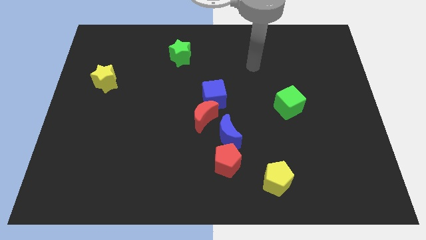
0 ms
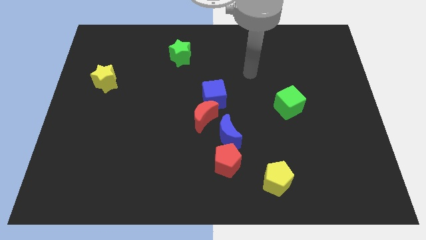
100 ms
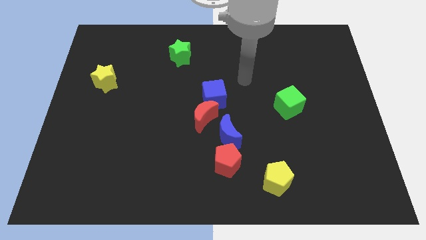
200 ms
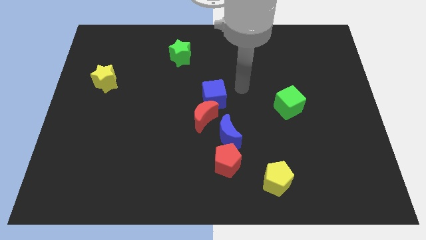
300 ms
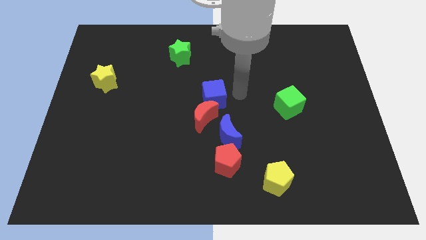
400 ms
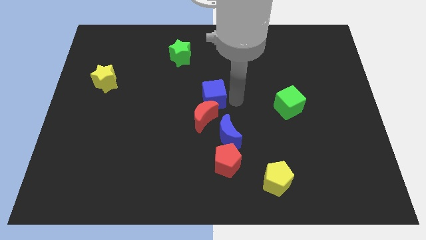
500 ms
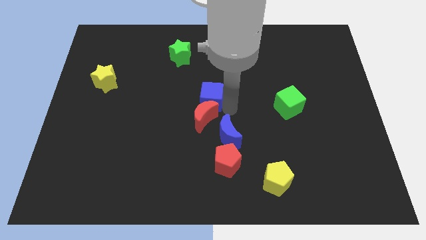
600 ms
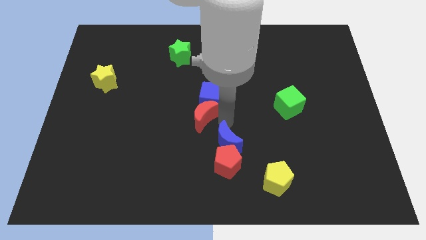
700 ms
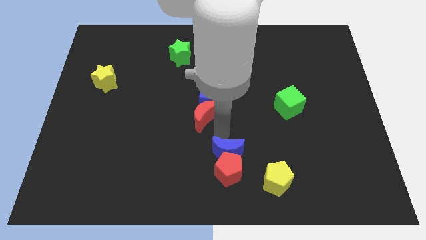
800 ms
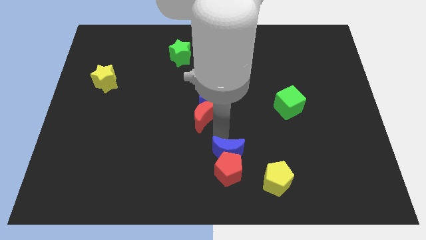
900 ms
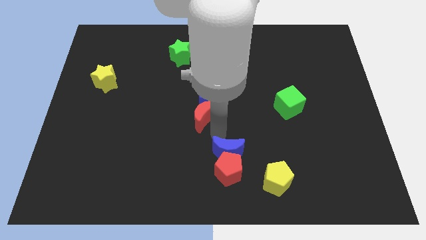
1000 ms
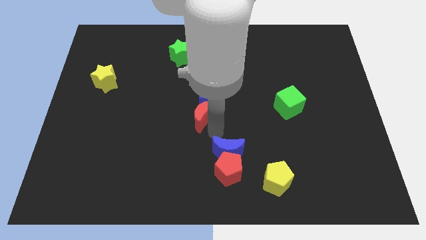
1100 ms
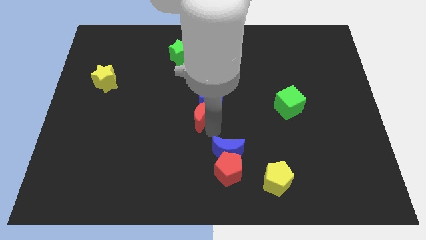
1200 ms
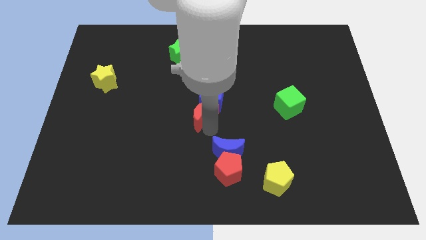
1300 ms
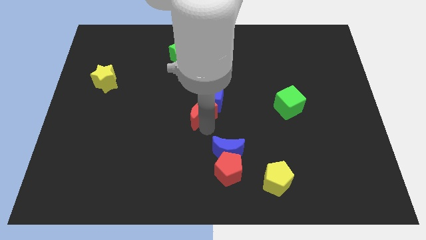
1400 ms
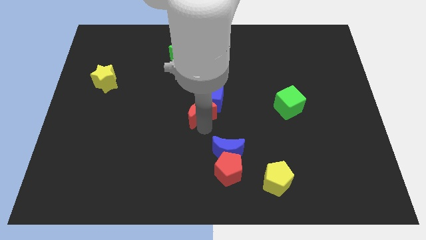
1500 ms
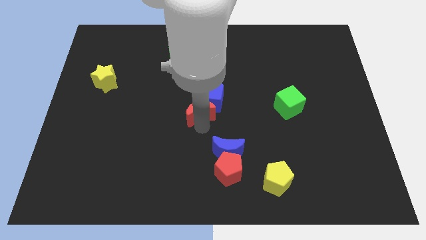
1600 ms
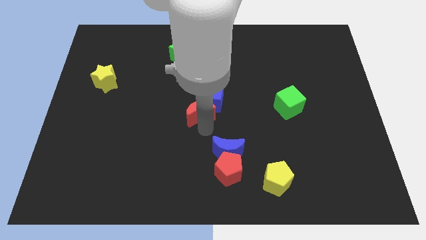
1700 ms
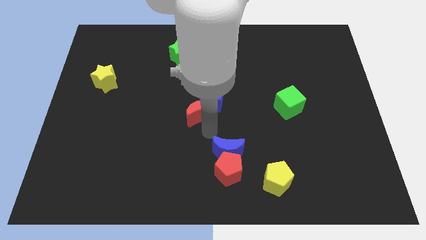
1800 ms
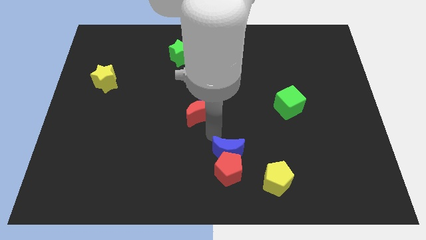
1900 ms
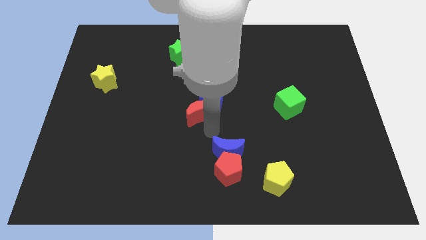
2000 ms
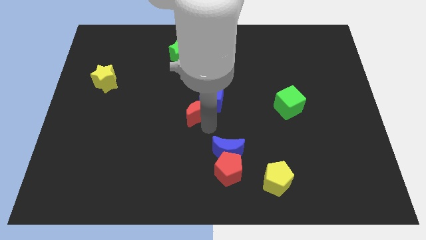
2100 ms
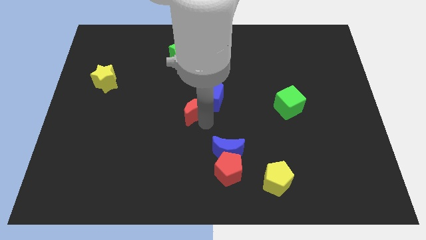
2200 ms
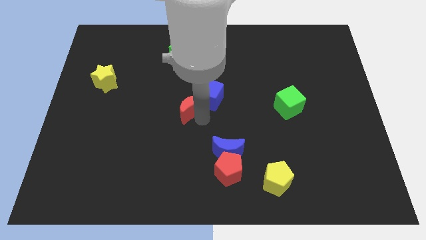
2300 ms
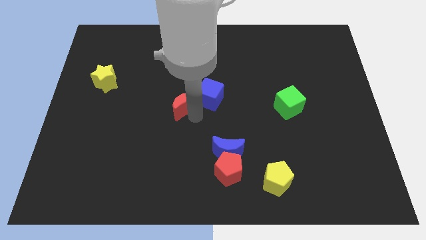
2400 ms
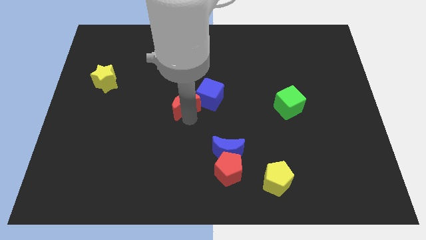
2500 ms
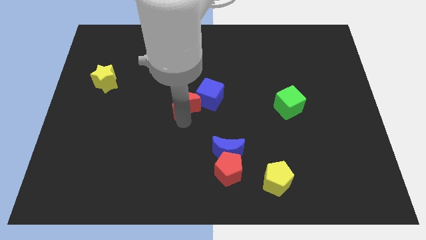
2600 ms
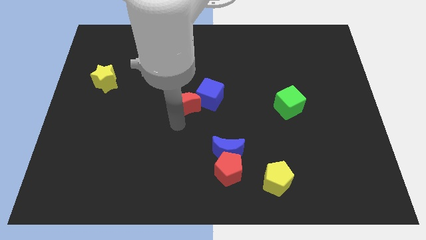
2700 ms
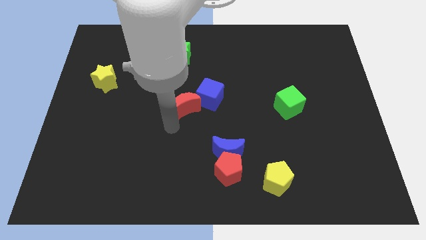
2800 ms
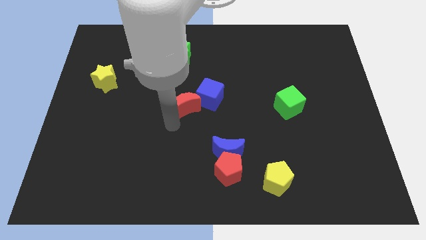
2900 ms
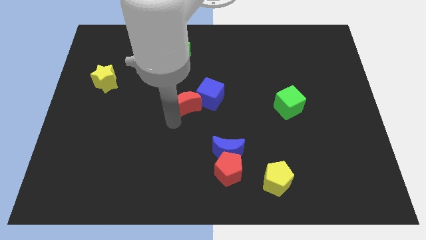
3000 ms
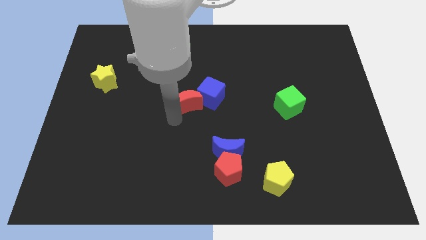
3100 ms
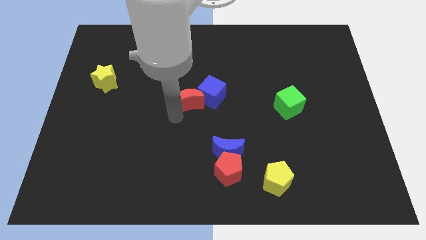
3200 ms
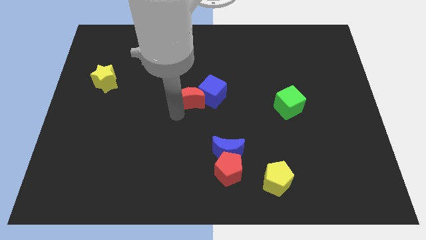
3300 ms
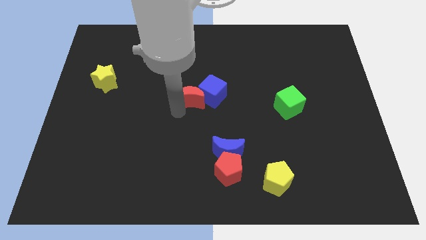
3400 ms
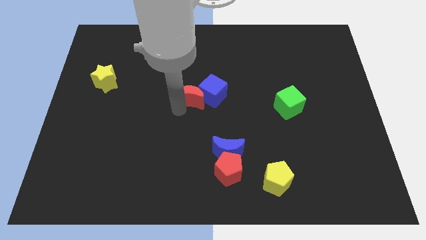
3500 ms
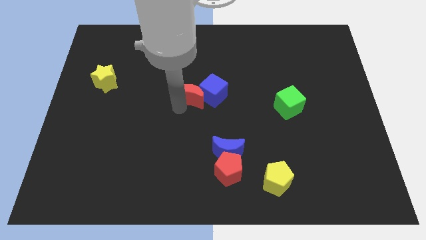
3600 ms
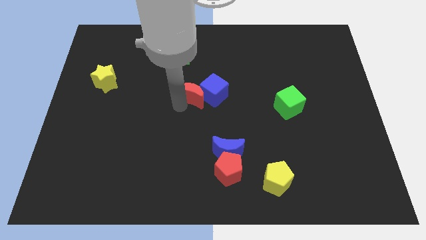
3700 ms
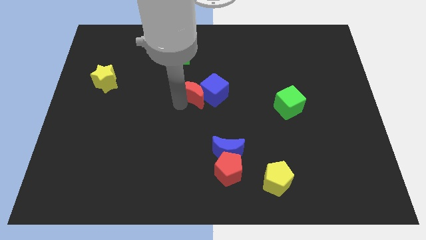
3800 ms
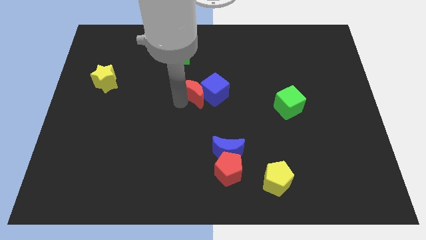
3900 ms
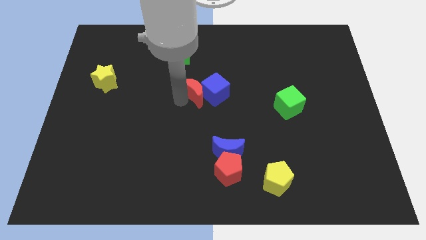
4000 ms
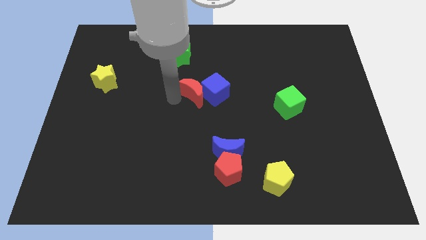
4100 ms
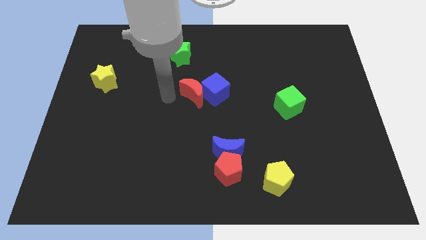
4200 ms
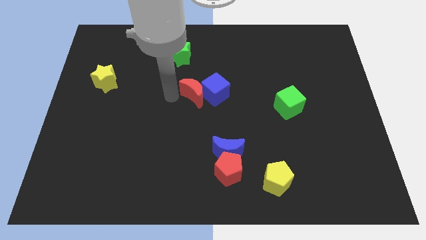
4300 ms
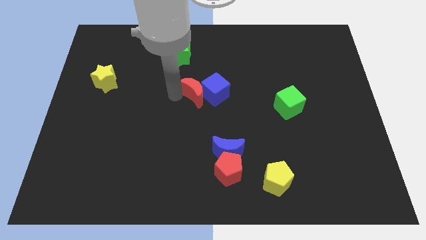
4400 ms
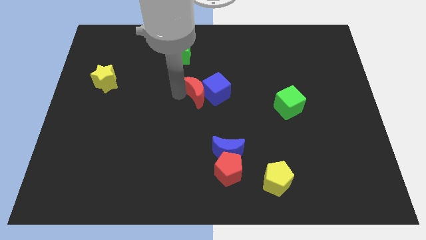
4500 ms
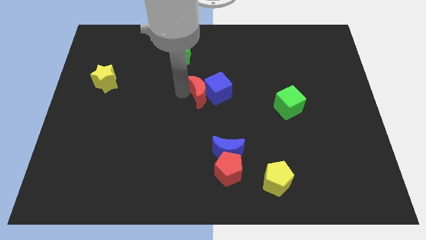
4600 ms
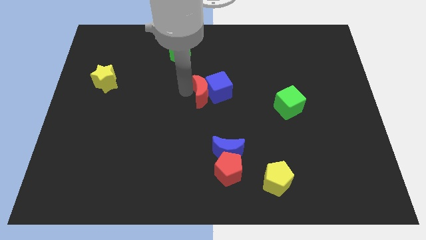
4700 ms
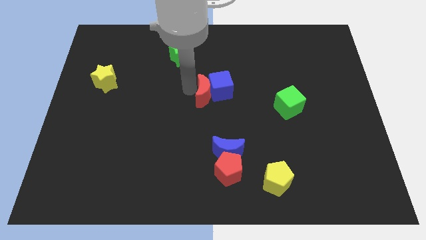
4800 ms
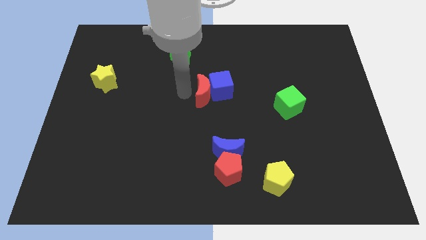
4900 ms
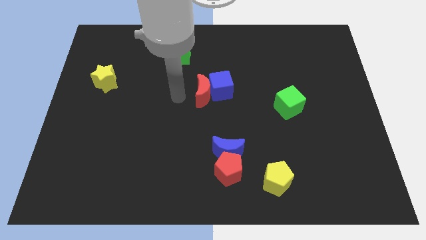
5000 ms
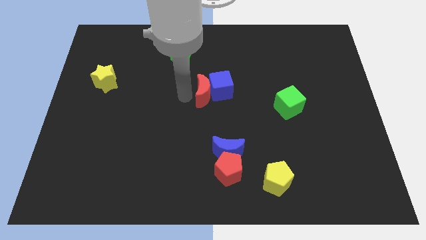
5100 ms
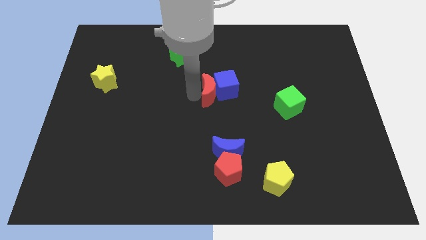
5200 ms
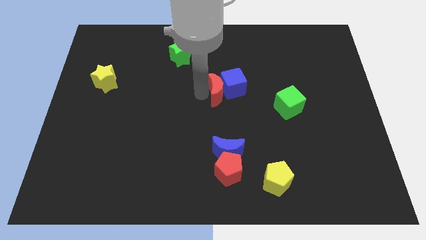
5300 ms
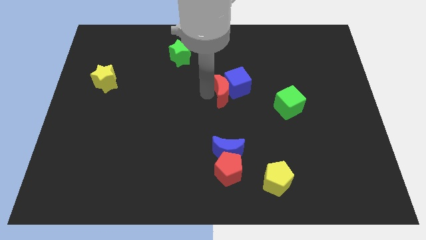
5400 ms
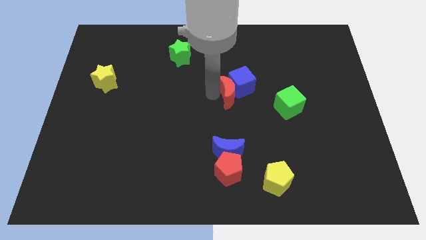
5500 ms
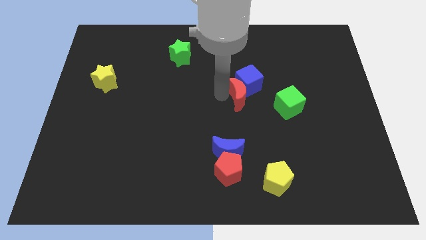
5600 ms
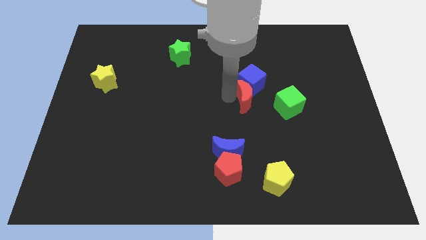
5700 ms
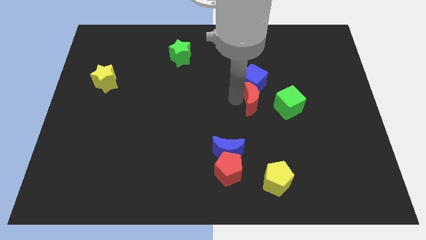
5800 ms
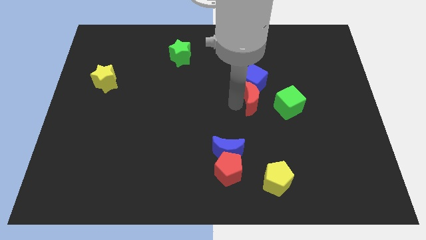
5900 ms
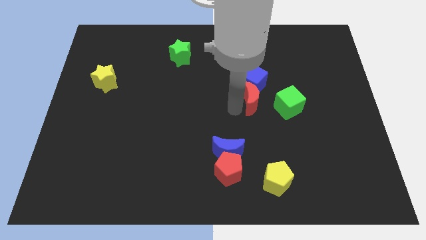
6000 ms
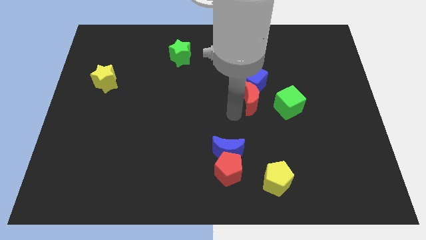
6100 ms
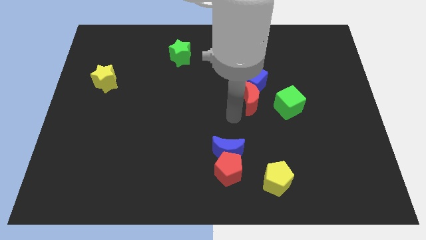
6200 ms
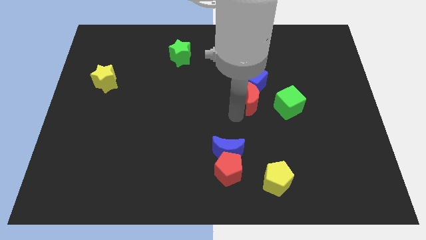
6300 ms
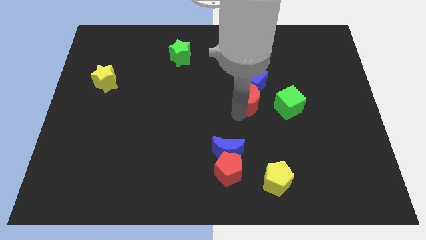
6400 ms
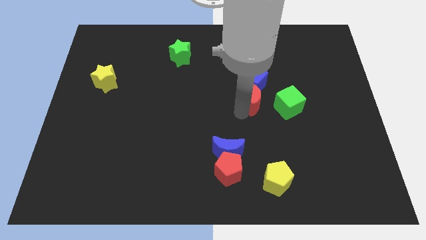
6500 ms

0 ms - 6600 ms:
put the red moon diagonally up and to the left of the green cube

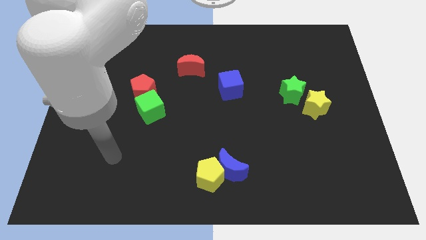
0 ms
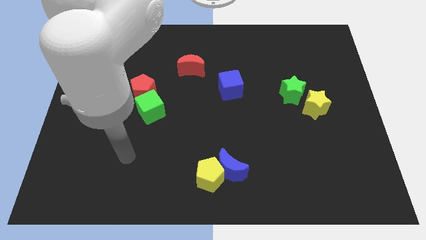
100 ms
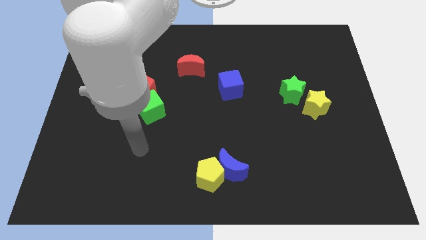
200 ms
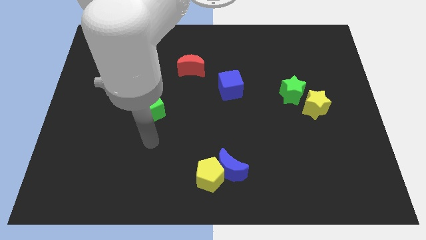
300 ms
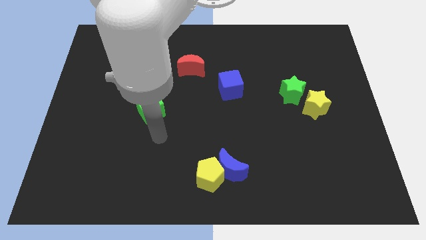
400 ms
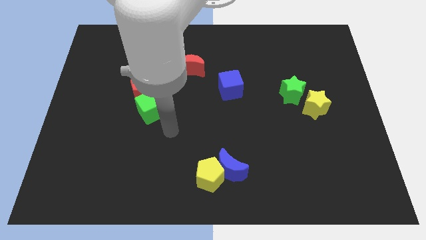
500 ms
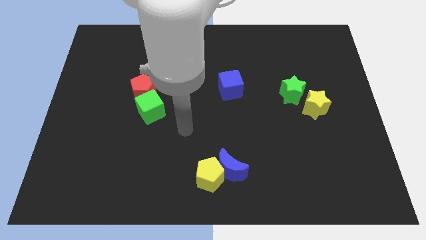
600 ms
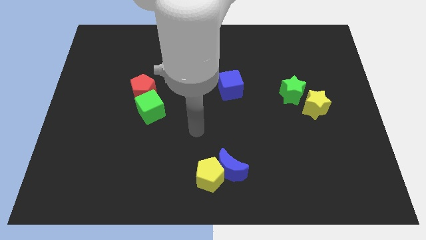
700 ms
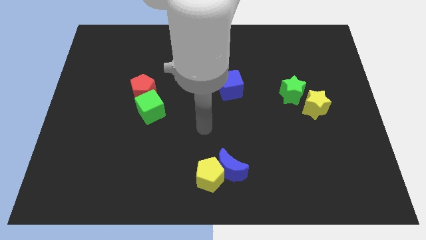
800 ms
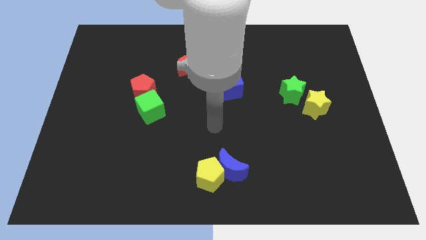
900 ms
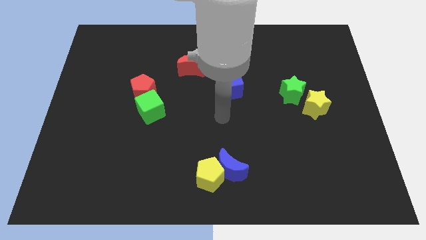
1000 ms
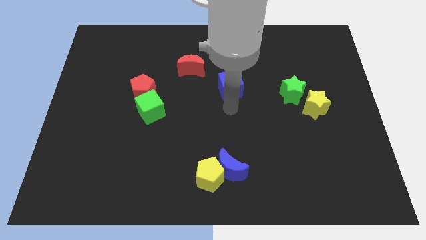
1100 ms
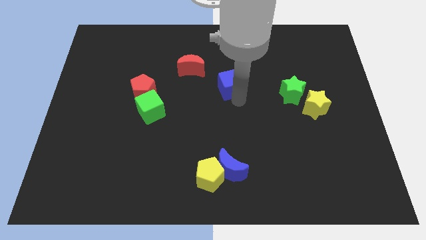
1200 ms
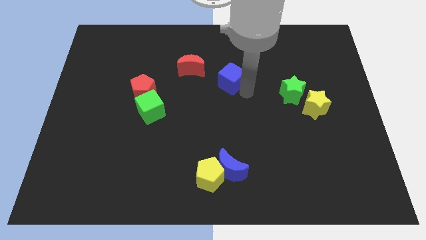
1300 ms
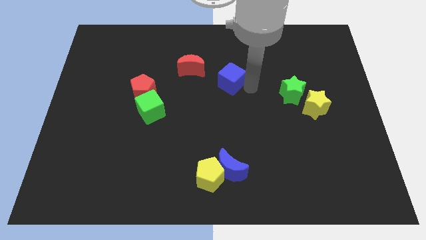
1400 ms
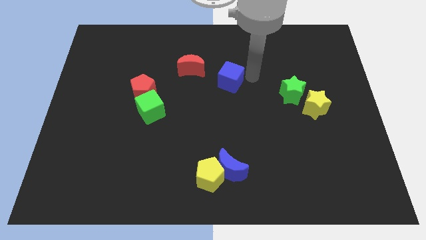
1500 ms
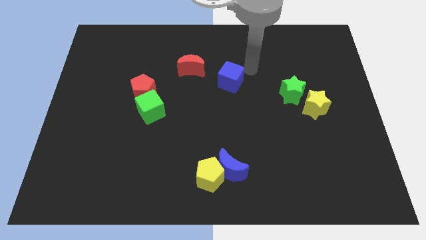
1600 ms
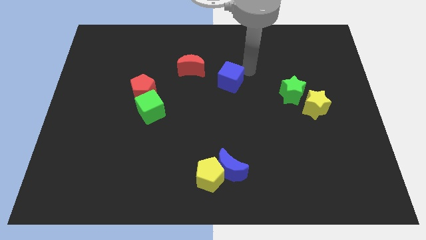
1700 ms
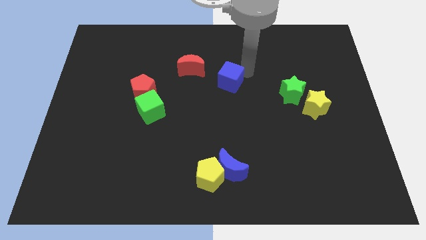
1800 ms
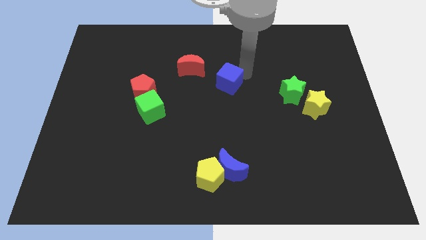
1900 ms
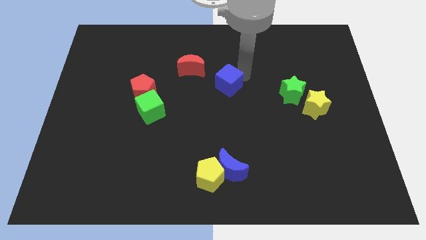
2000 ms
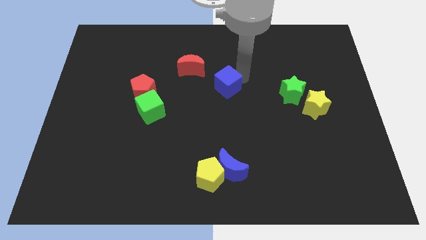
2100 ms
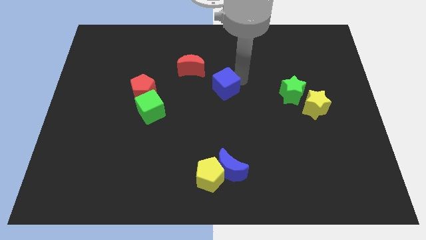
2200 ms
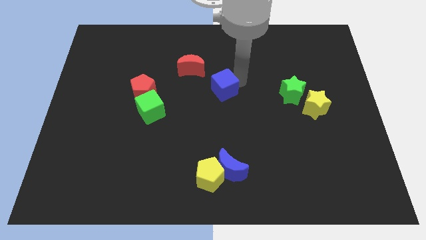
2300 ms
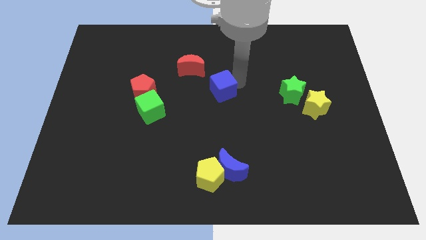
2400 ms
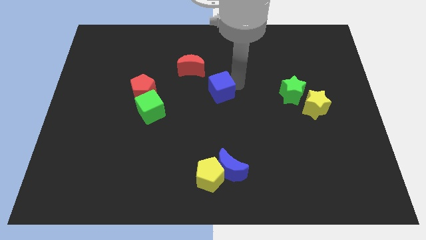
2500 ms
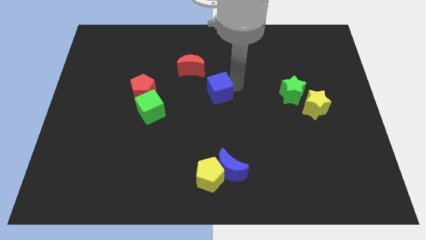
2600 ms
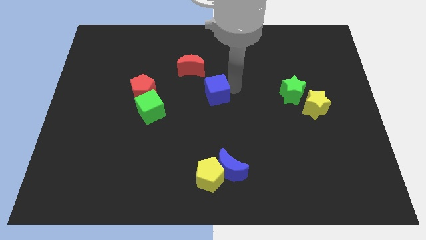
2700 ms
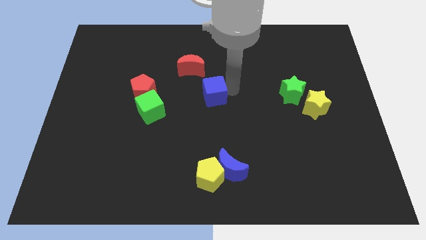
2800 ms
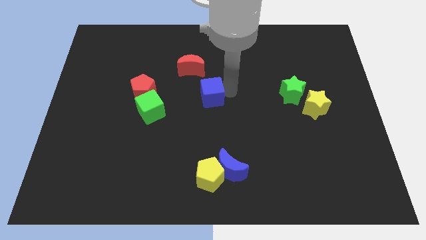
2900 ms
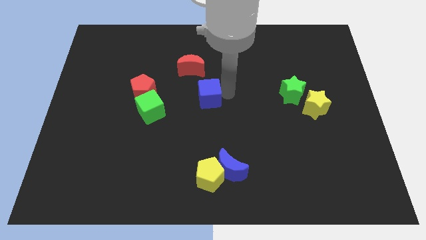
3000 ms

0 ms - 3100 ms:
push the blue cube to the right of the red pentagon
